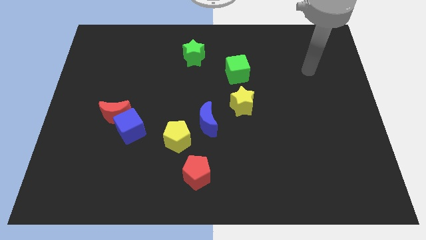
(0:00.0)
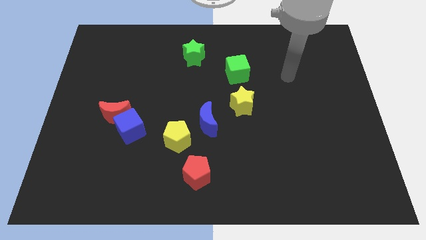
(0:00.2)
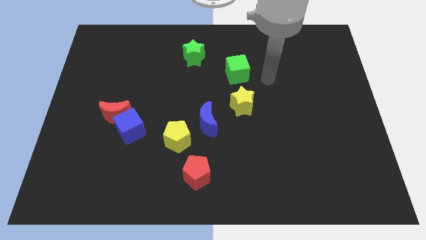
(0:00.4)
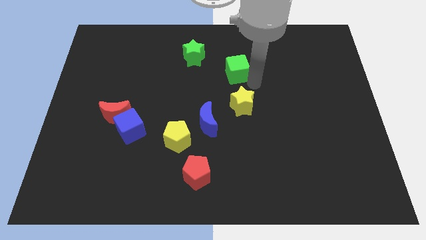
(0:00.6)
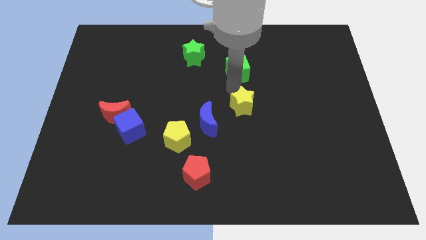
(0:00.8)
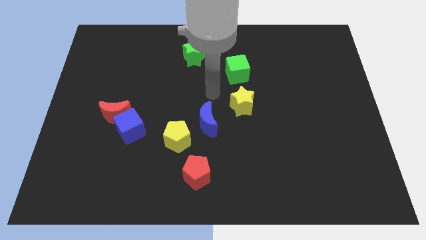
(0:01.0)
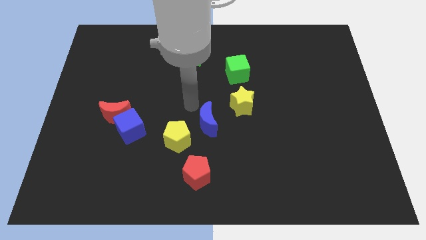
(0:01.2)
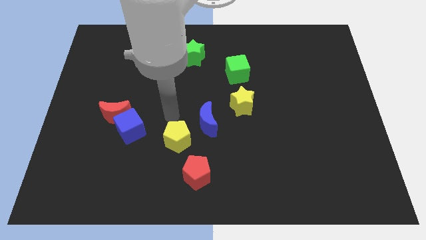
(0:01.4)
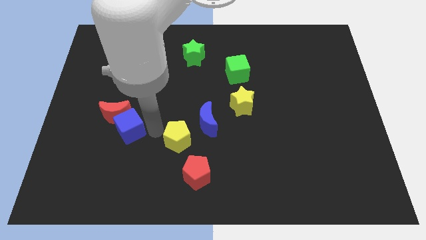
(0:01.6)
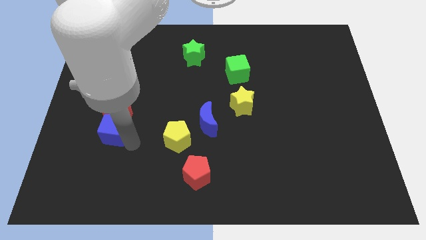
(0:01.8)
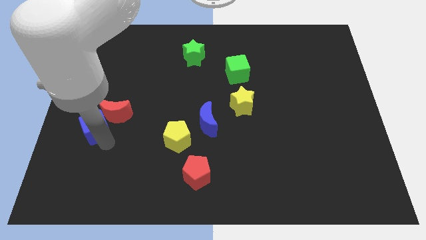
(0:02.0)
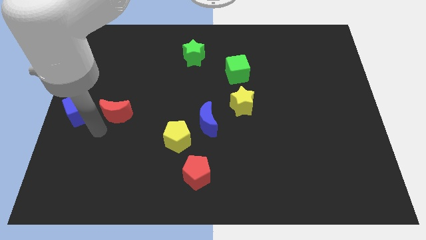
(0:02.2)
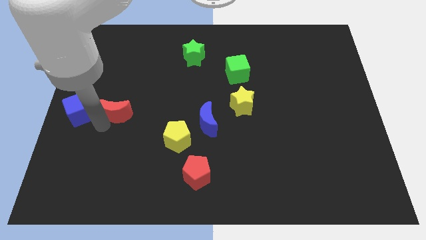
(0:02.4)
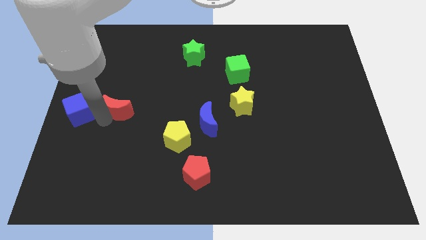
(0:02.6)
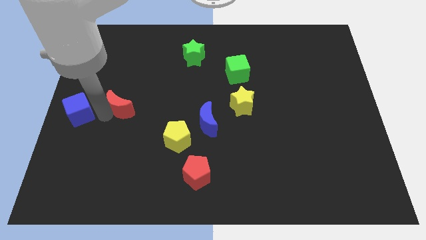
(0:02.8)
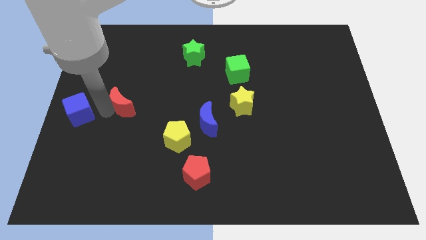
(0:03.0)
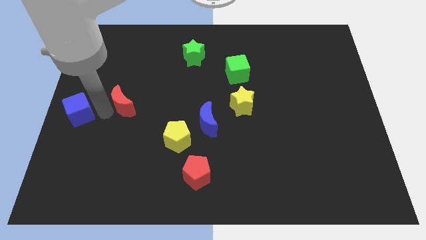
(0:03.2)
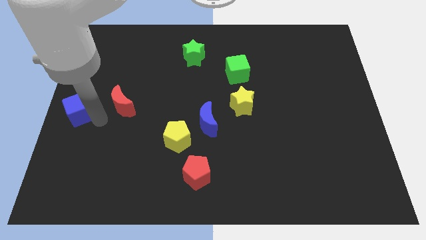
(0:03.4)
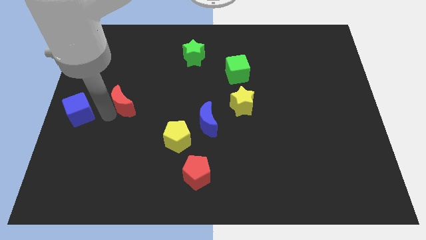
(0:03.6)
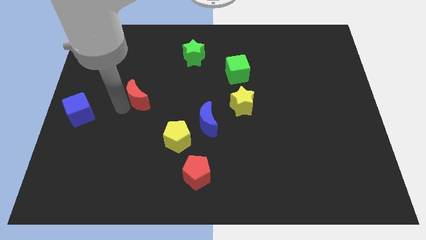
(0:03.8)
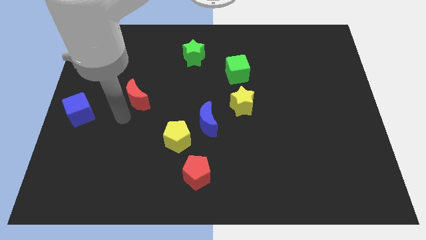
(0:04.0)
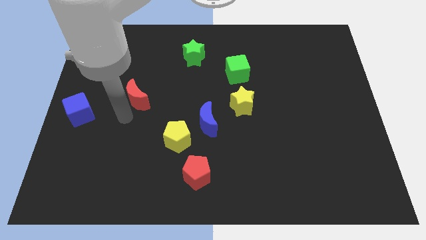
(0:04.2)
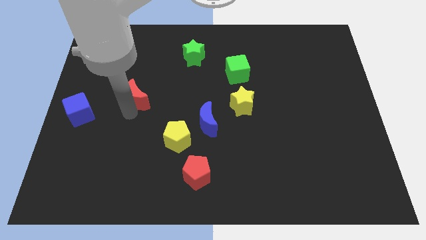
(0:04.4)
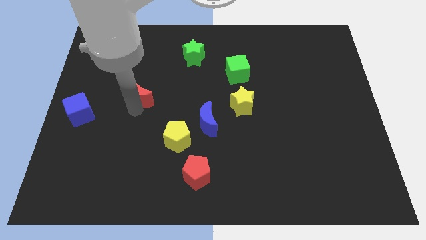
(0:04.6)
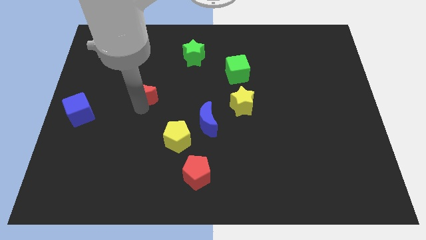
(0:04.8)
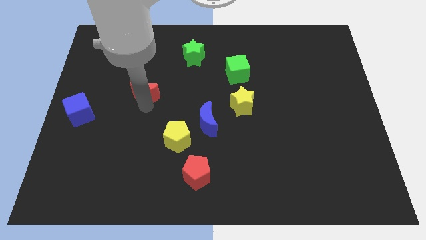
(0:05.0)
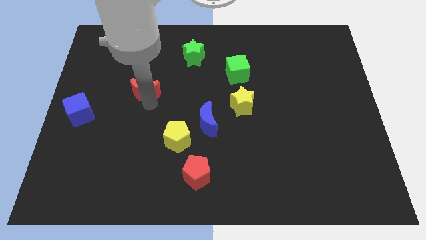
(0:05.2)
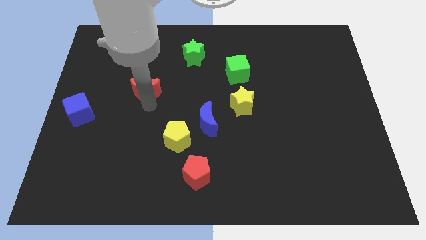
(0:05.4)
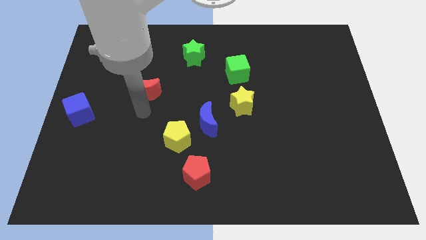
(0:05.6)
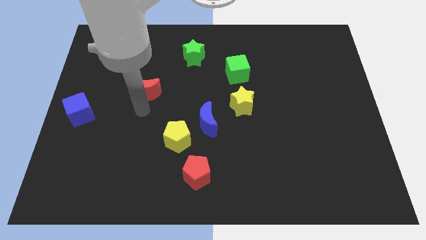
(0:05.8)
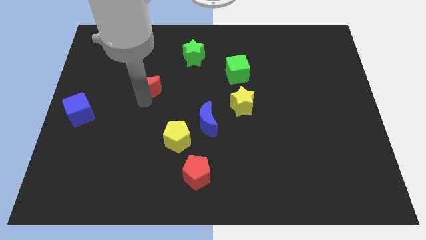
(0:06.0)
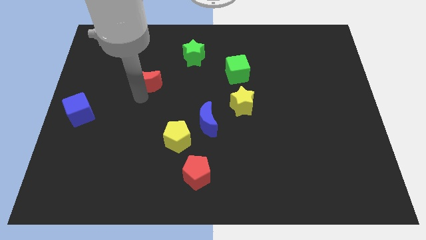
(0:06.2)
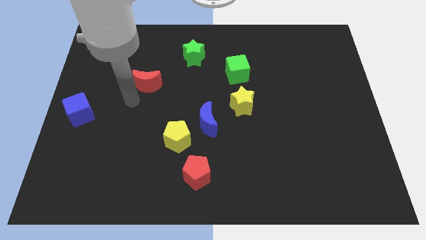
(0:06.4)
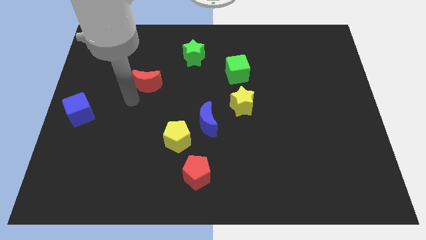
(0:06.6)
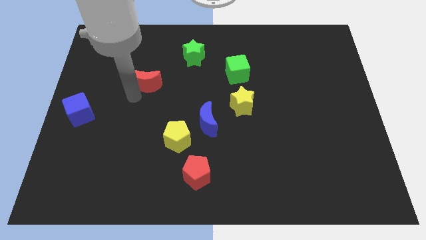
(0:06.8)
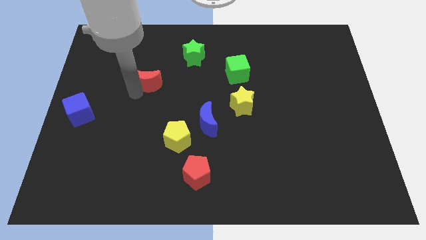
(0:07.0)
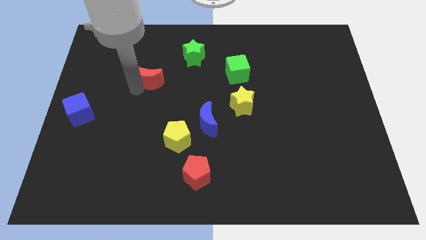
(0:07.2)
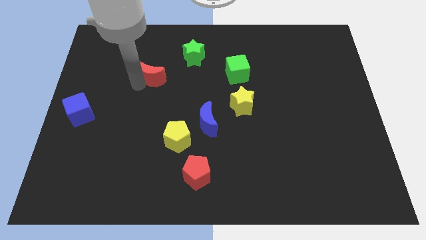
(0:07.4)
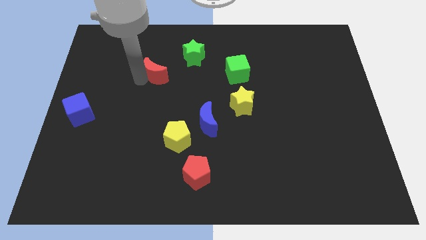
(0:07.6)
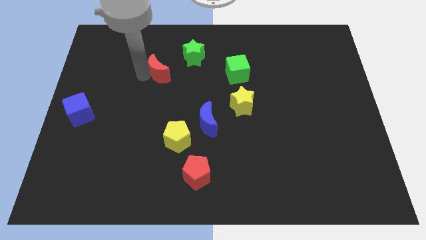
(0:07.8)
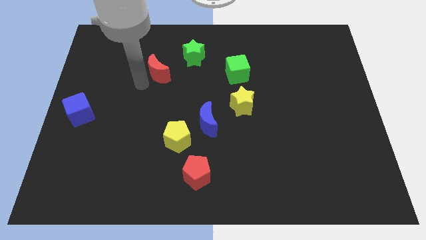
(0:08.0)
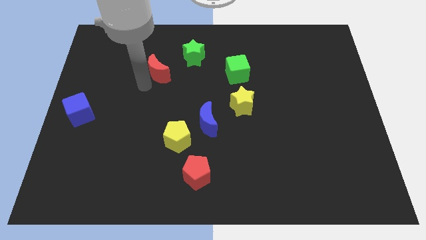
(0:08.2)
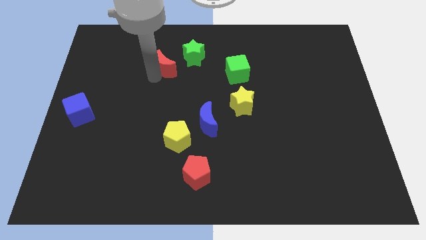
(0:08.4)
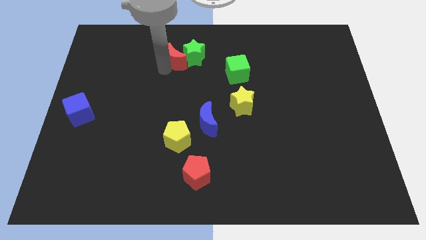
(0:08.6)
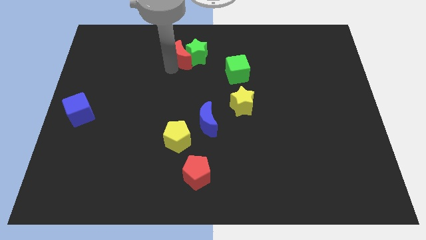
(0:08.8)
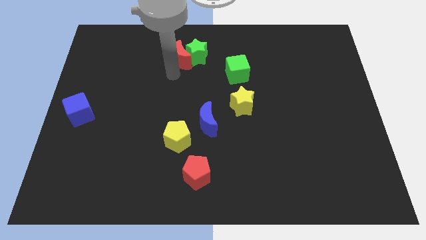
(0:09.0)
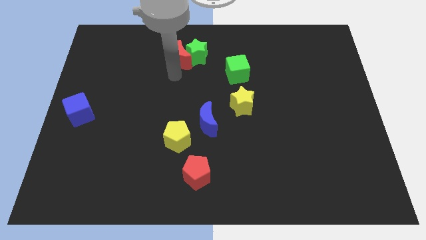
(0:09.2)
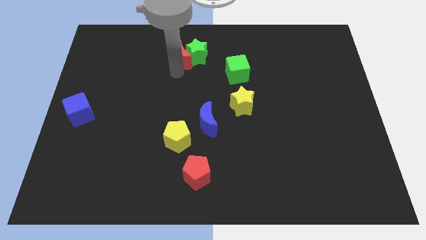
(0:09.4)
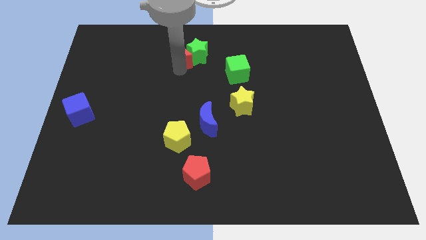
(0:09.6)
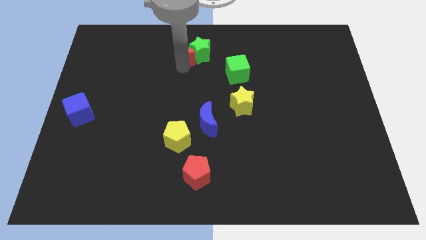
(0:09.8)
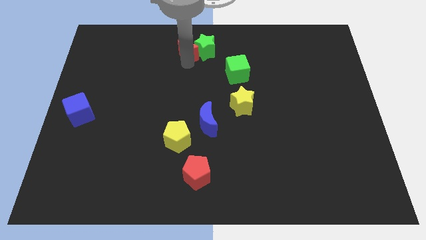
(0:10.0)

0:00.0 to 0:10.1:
slide the red moon to the top side

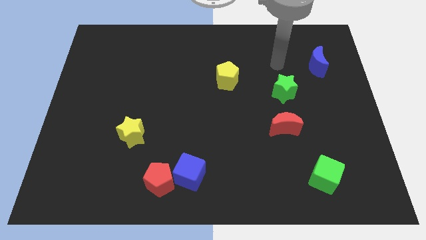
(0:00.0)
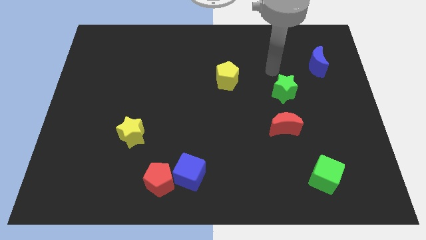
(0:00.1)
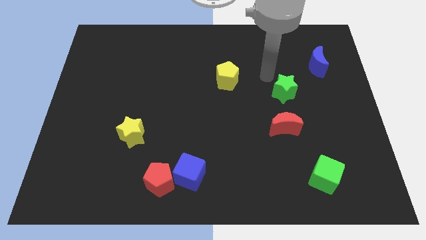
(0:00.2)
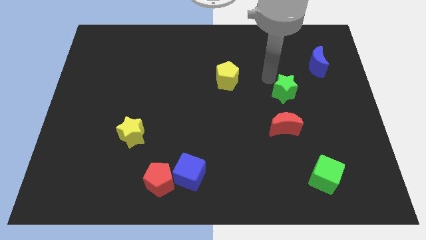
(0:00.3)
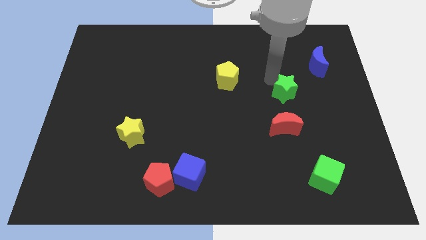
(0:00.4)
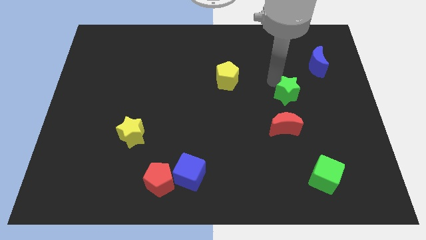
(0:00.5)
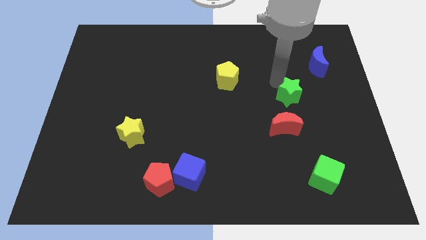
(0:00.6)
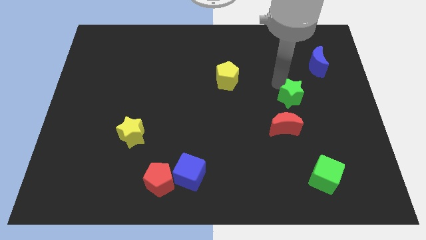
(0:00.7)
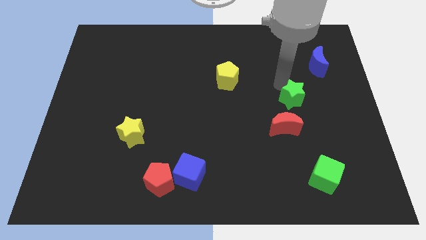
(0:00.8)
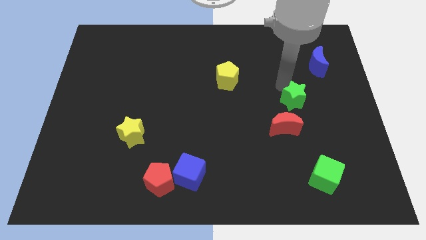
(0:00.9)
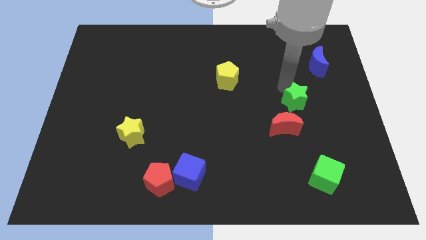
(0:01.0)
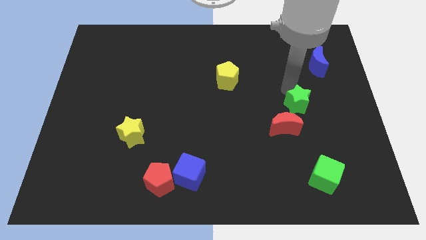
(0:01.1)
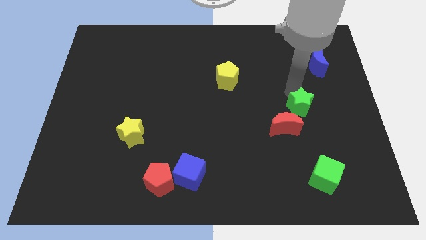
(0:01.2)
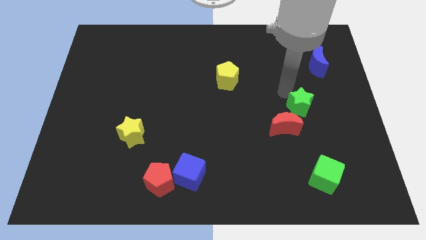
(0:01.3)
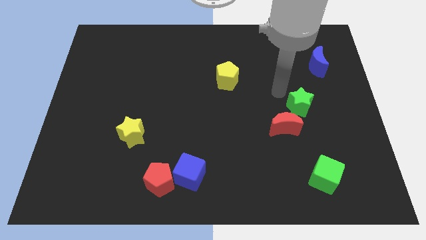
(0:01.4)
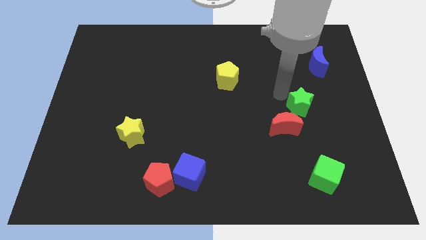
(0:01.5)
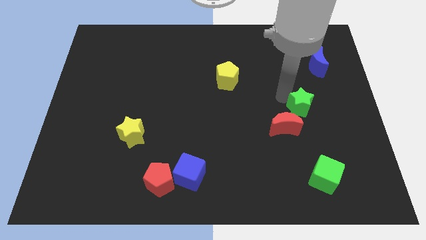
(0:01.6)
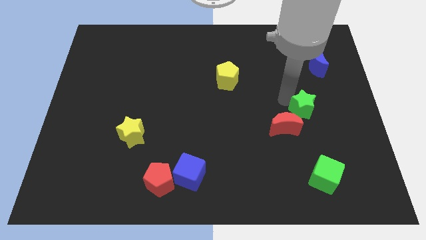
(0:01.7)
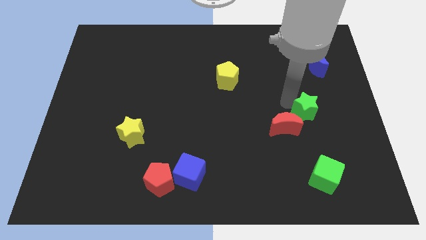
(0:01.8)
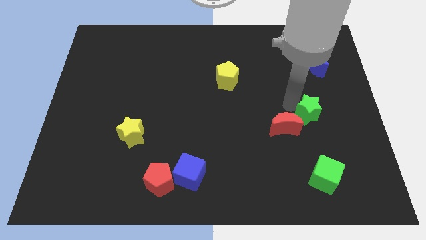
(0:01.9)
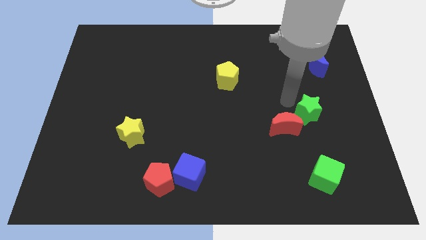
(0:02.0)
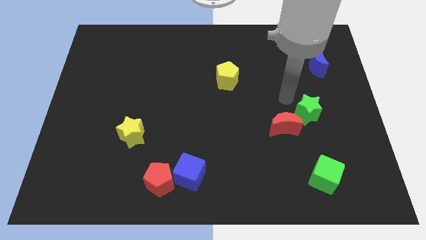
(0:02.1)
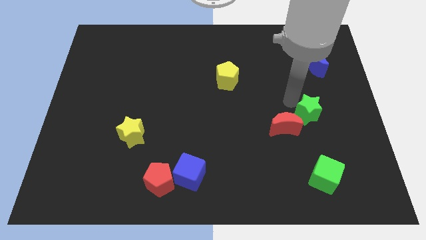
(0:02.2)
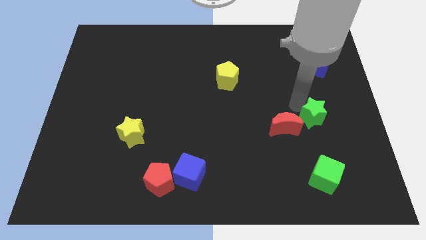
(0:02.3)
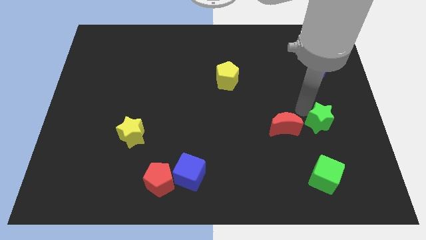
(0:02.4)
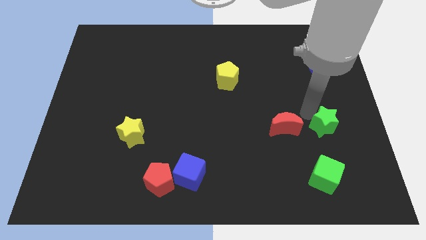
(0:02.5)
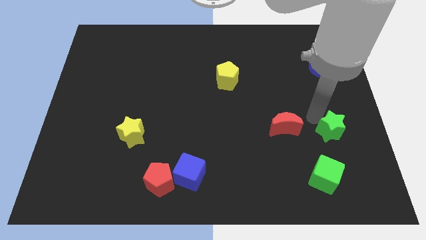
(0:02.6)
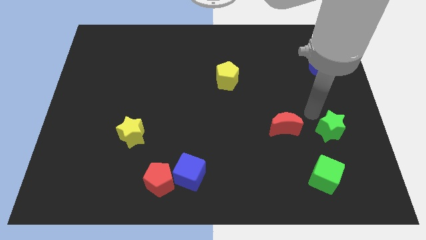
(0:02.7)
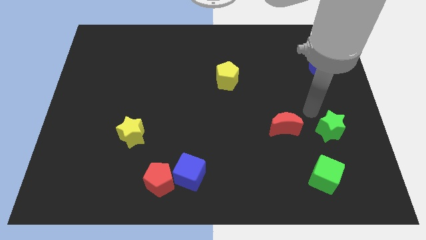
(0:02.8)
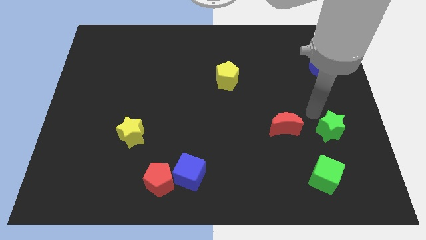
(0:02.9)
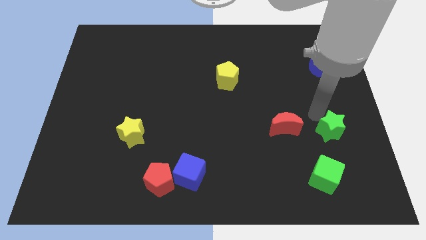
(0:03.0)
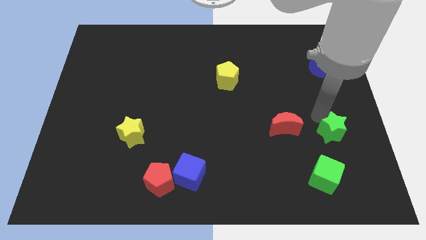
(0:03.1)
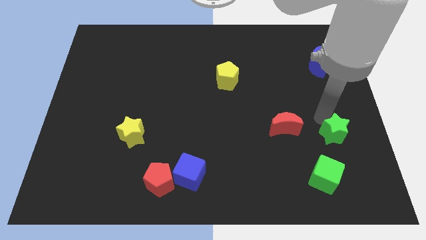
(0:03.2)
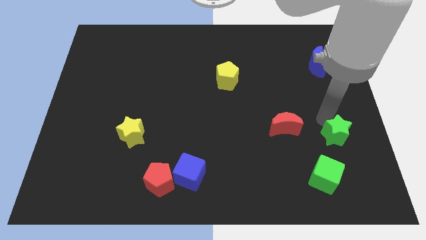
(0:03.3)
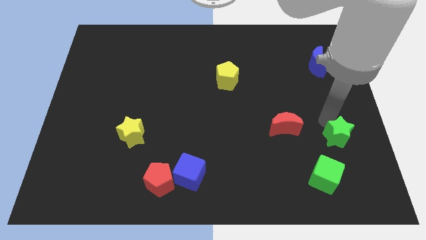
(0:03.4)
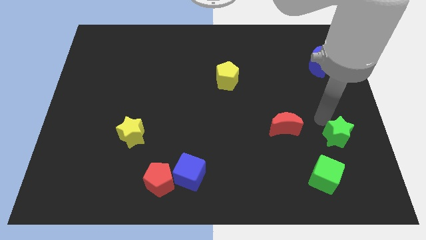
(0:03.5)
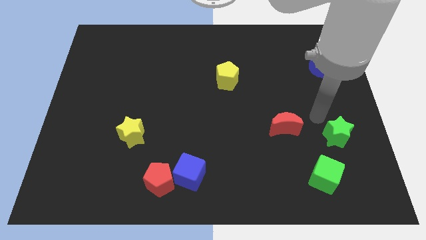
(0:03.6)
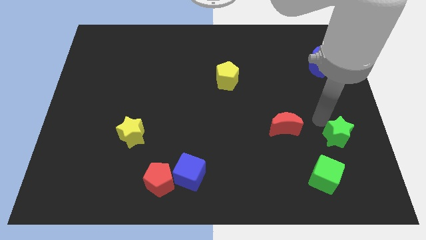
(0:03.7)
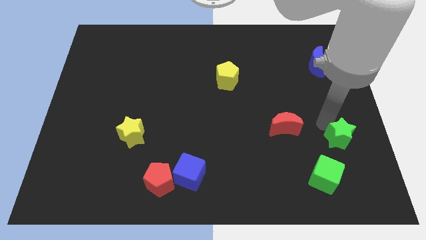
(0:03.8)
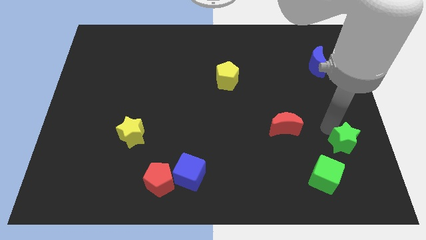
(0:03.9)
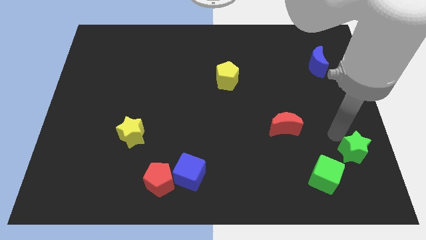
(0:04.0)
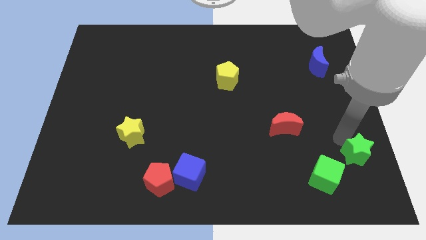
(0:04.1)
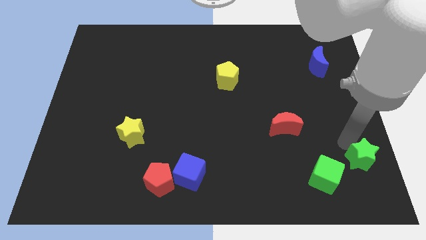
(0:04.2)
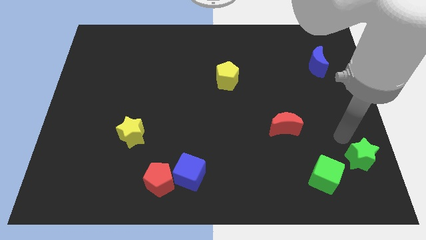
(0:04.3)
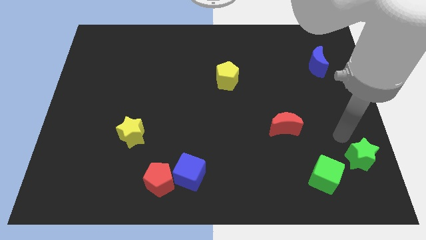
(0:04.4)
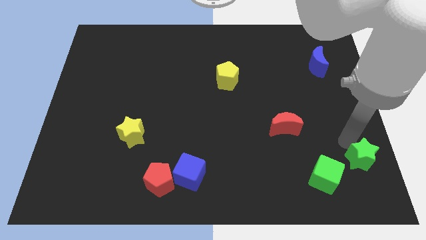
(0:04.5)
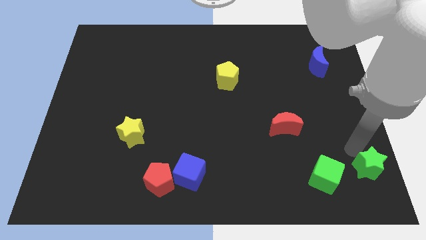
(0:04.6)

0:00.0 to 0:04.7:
put the green star to the lower right corner
